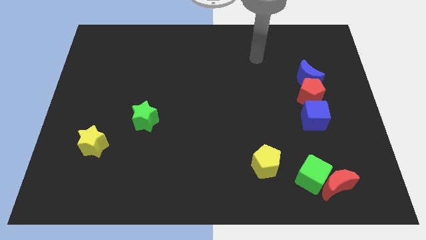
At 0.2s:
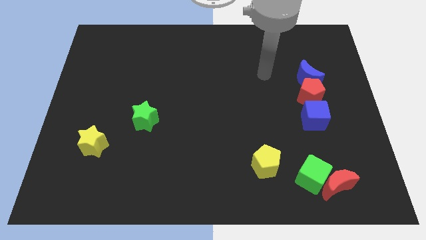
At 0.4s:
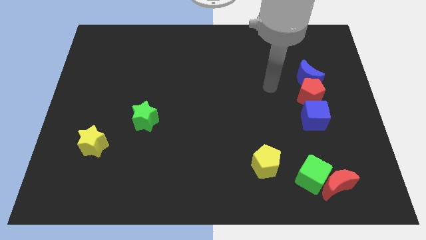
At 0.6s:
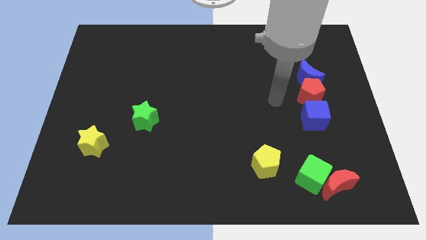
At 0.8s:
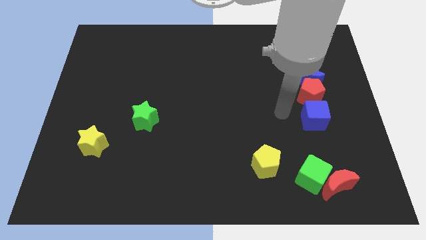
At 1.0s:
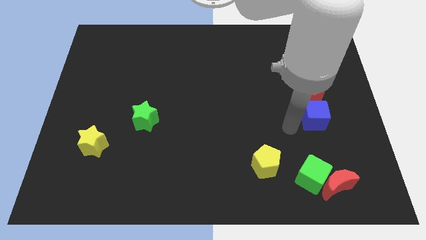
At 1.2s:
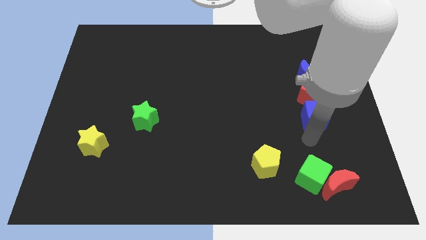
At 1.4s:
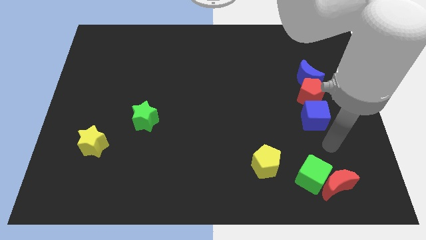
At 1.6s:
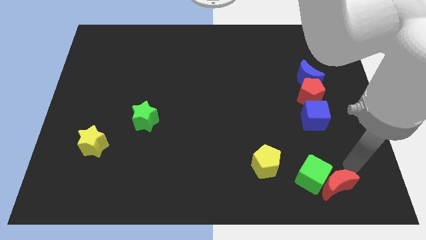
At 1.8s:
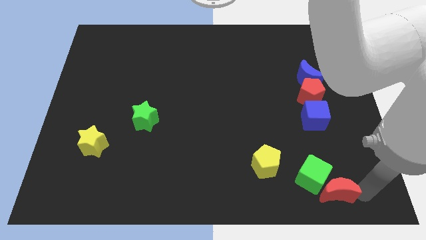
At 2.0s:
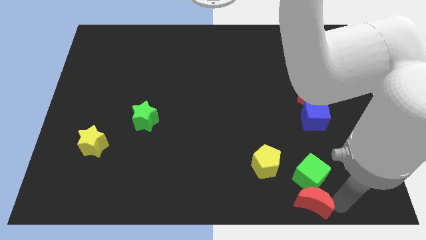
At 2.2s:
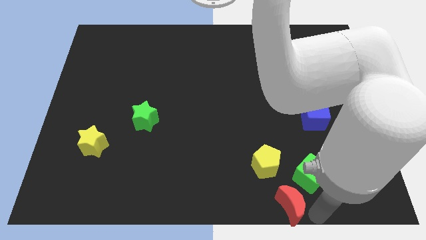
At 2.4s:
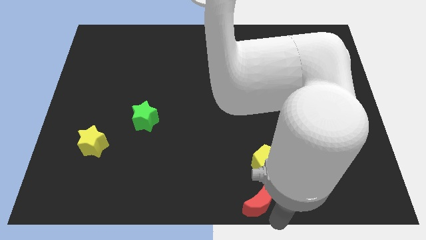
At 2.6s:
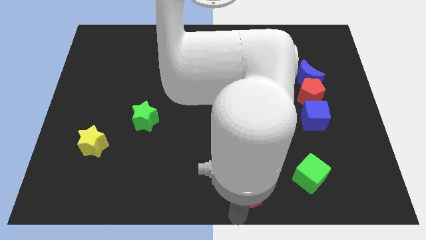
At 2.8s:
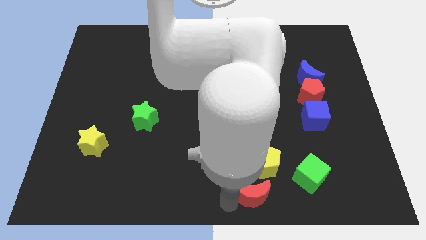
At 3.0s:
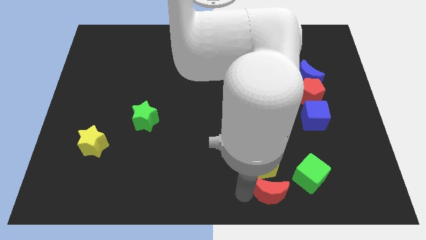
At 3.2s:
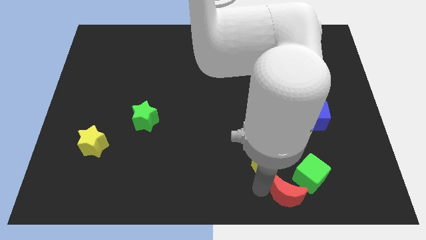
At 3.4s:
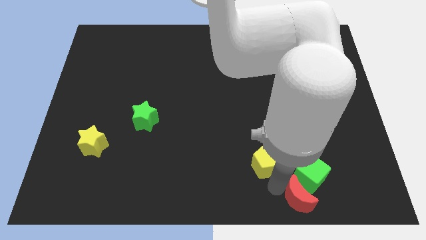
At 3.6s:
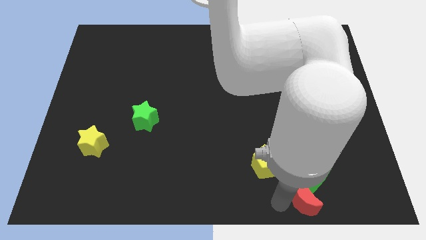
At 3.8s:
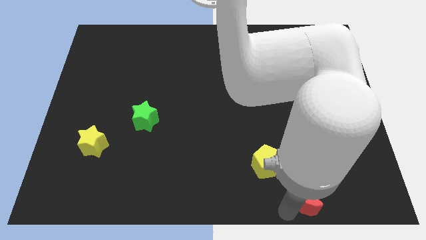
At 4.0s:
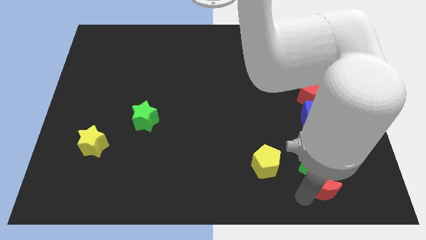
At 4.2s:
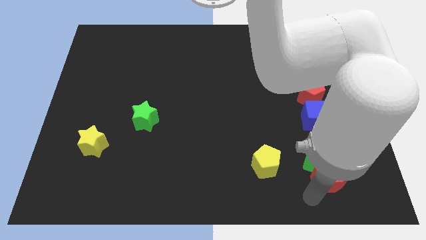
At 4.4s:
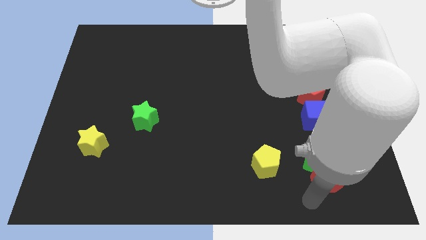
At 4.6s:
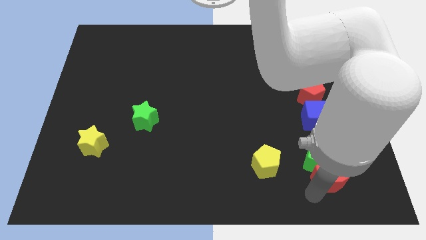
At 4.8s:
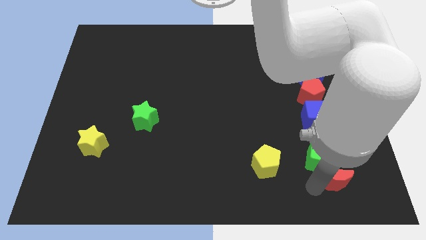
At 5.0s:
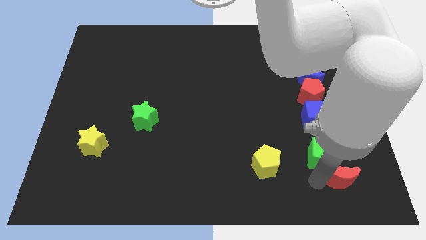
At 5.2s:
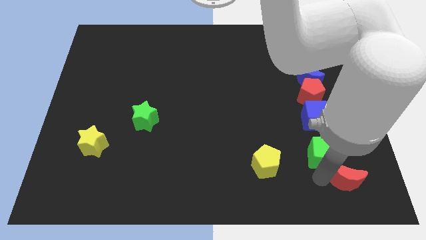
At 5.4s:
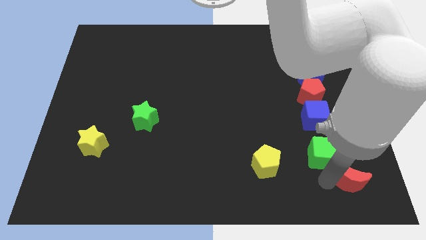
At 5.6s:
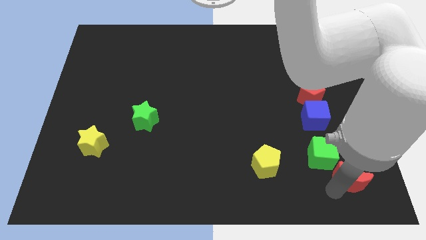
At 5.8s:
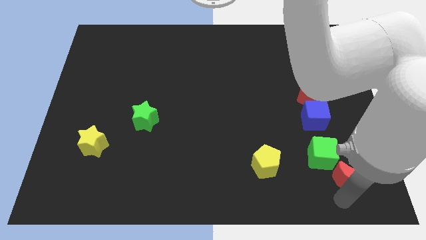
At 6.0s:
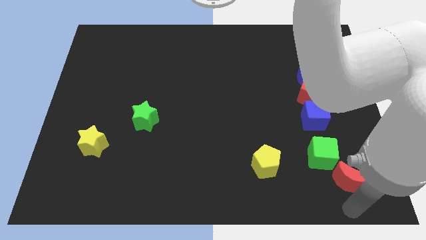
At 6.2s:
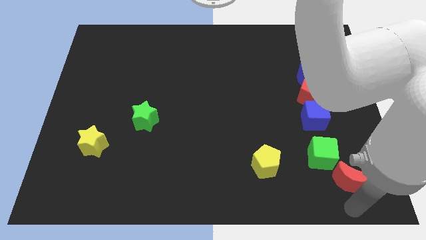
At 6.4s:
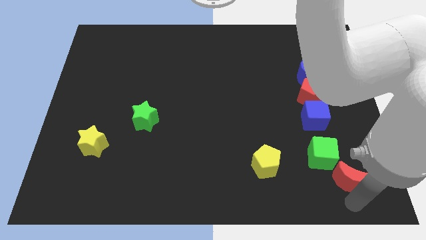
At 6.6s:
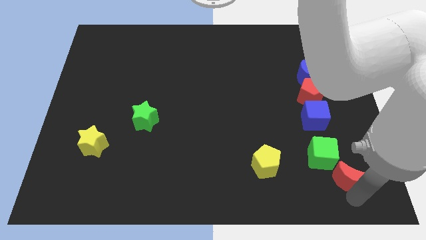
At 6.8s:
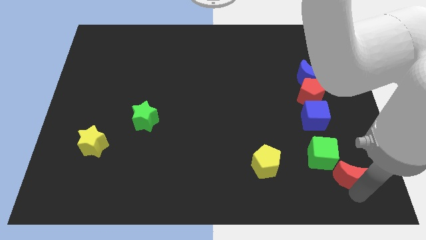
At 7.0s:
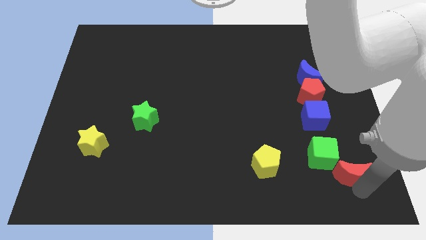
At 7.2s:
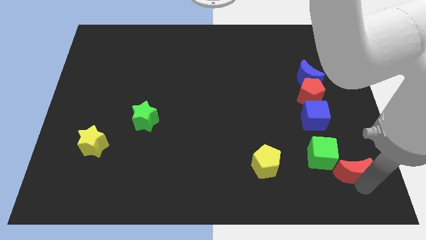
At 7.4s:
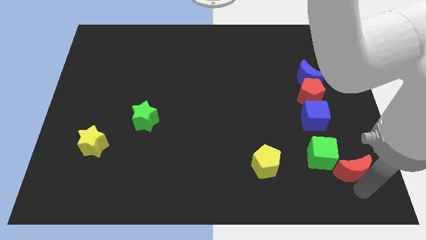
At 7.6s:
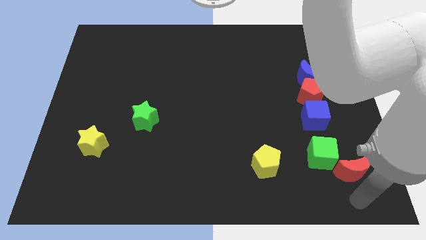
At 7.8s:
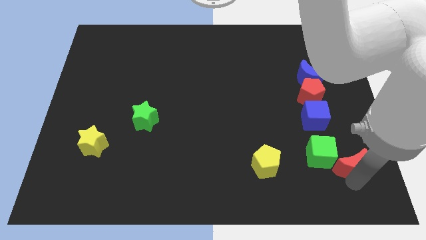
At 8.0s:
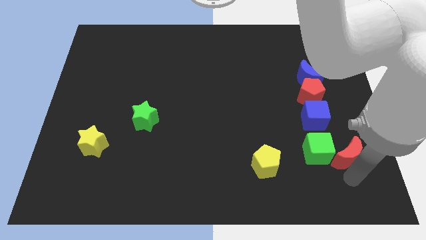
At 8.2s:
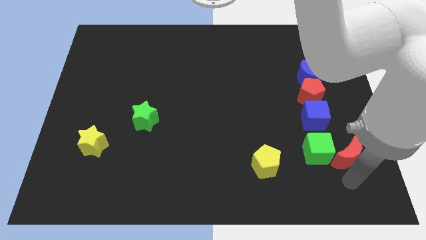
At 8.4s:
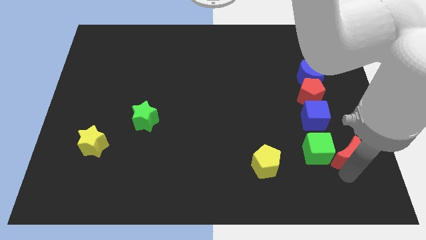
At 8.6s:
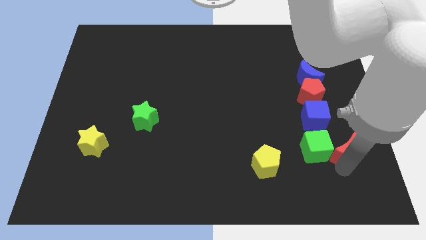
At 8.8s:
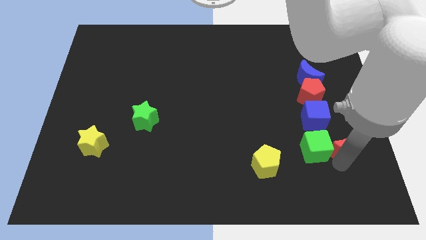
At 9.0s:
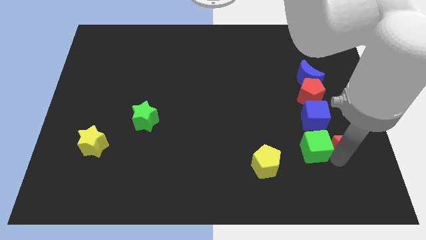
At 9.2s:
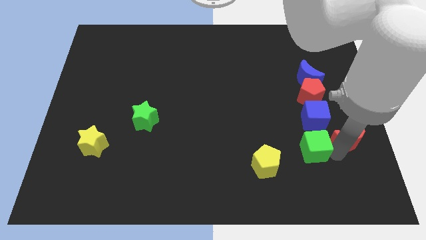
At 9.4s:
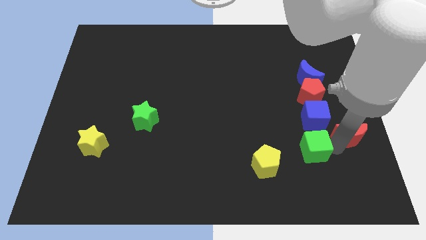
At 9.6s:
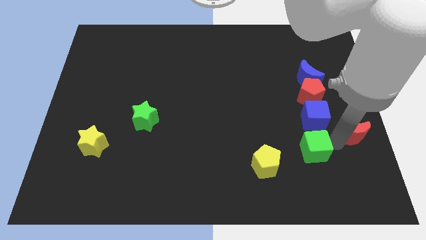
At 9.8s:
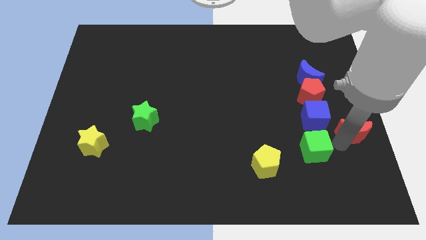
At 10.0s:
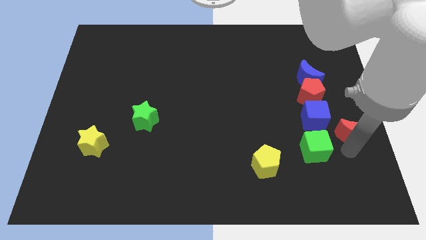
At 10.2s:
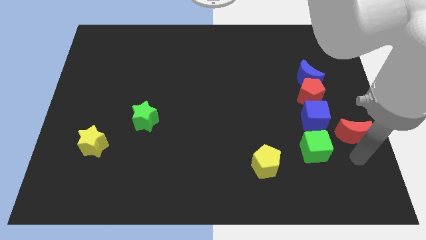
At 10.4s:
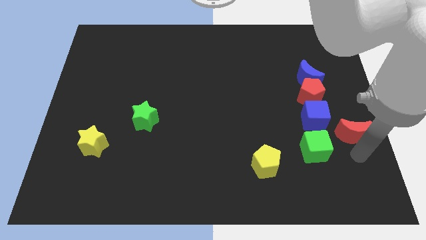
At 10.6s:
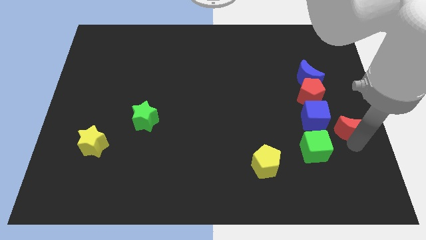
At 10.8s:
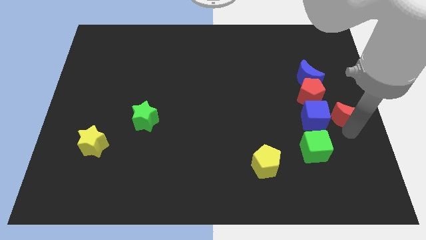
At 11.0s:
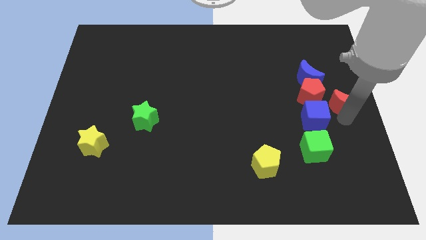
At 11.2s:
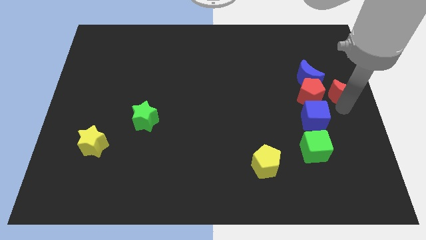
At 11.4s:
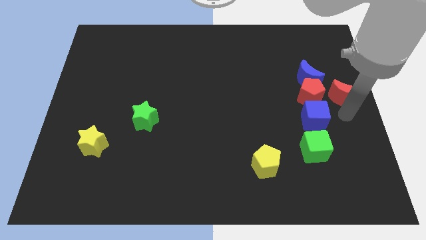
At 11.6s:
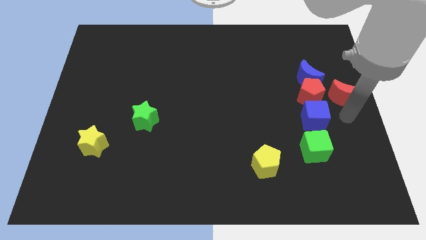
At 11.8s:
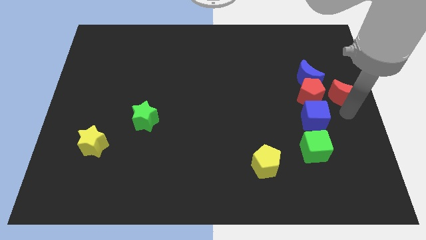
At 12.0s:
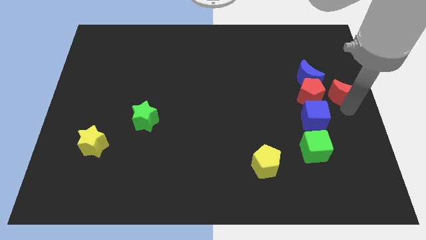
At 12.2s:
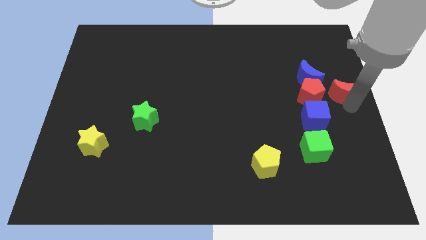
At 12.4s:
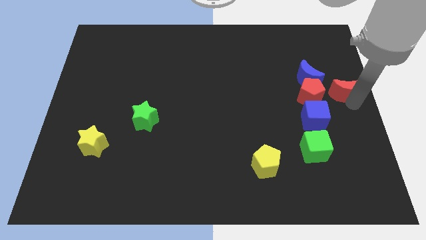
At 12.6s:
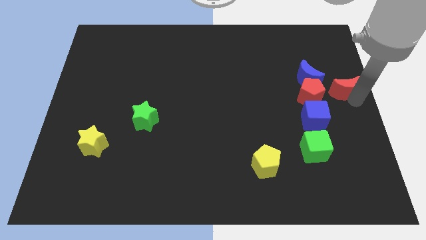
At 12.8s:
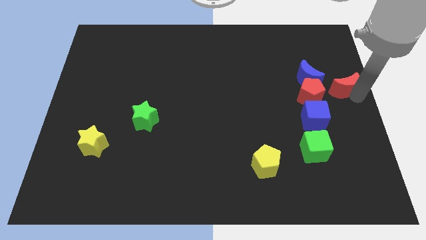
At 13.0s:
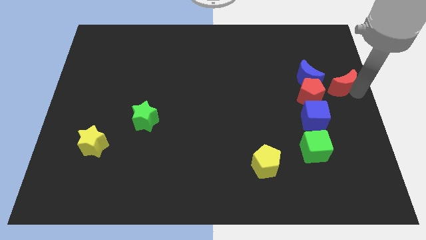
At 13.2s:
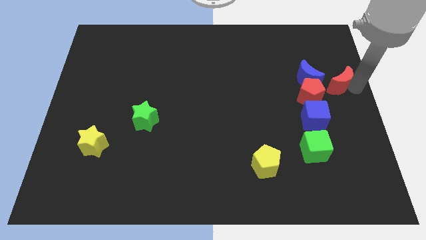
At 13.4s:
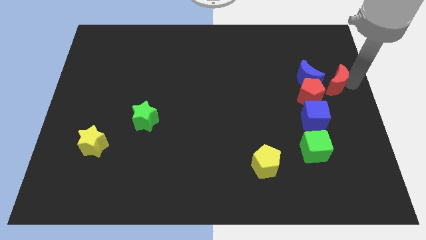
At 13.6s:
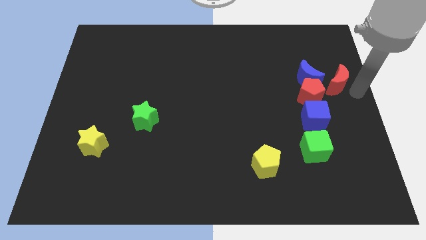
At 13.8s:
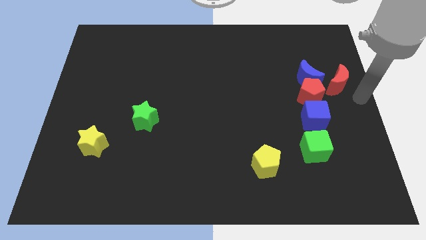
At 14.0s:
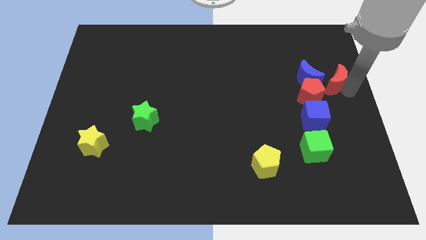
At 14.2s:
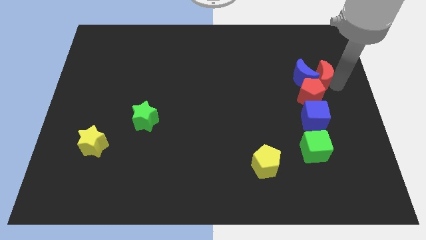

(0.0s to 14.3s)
push the red moon to the top side of the red pentagon
